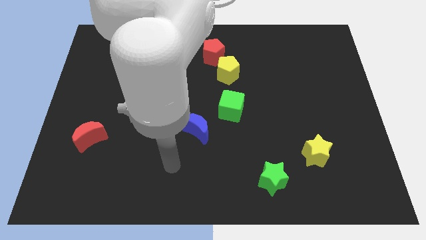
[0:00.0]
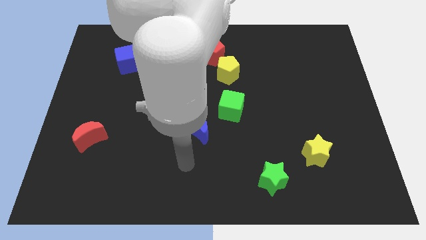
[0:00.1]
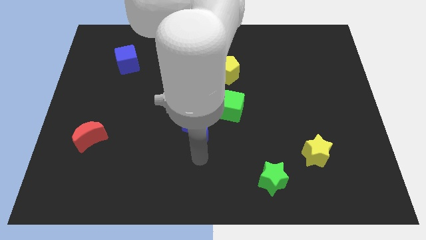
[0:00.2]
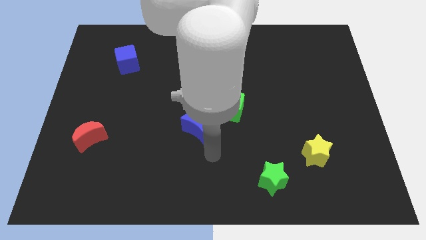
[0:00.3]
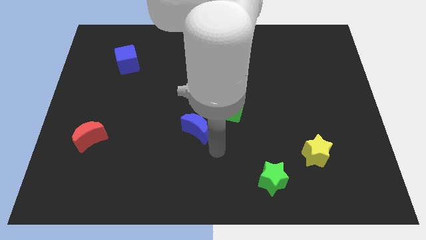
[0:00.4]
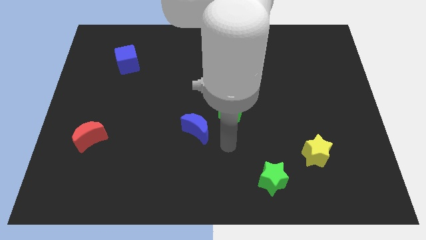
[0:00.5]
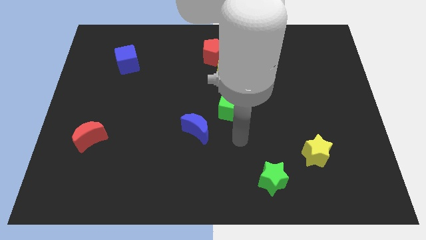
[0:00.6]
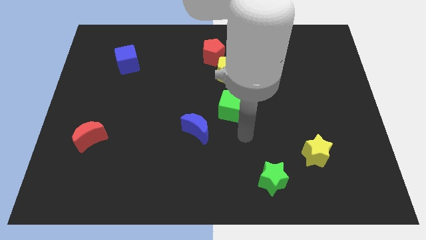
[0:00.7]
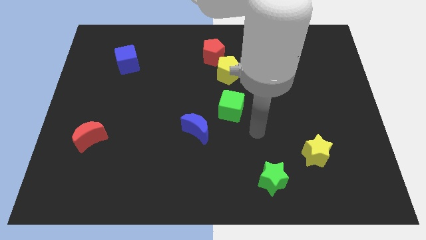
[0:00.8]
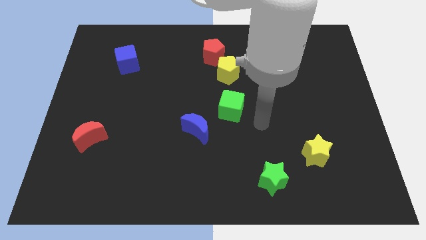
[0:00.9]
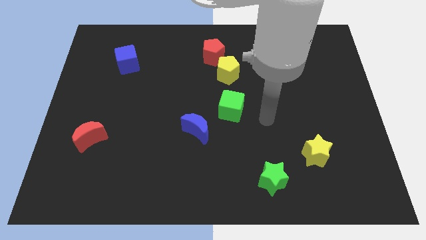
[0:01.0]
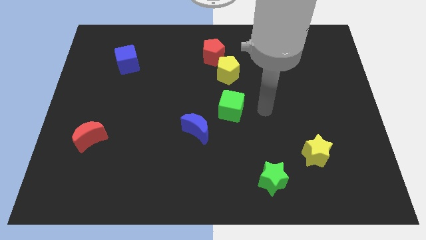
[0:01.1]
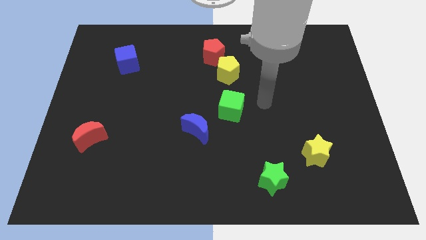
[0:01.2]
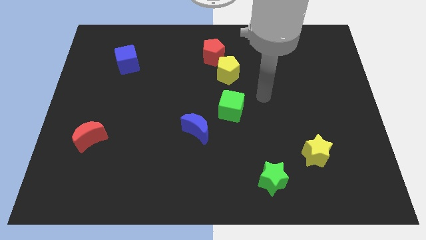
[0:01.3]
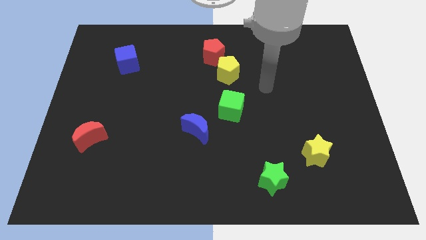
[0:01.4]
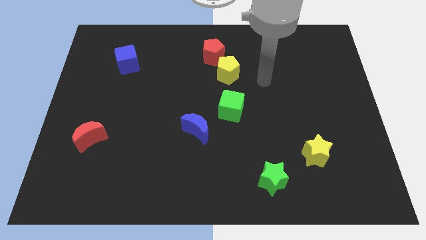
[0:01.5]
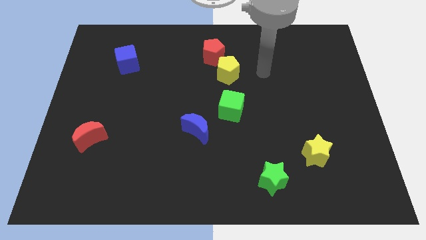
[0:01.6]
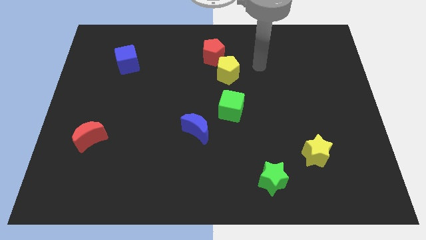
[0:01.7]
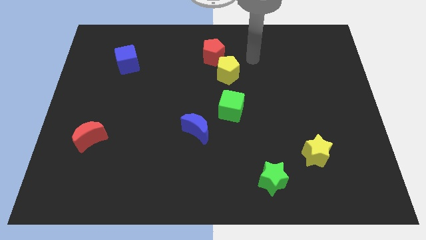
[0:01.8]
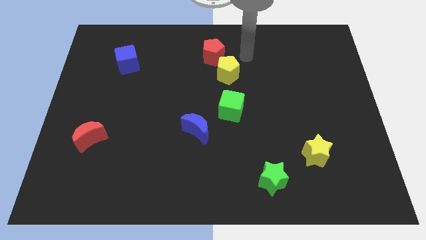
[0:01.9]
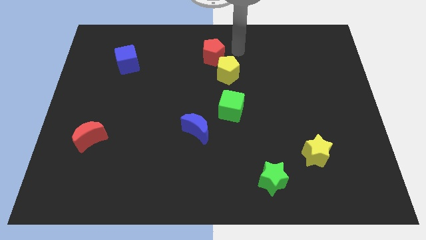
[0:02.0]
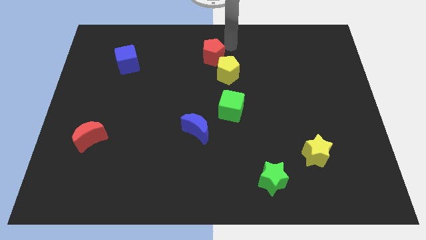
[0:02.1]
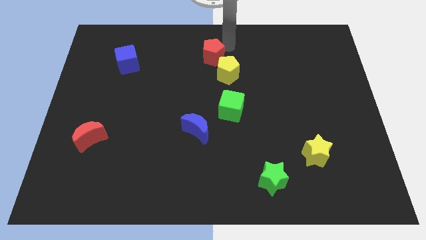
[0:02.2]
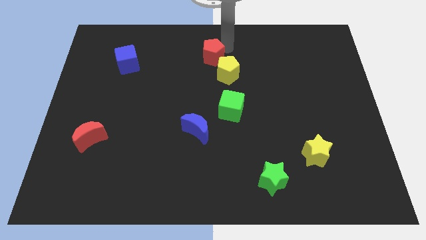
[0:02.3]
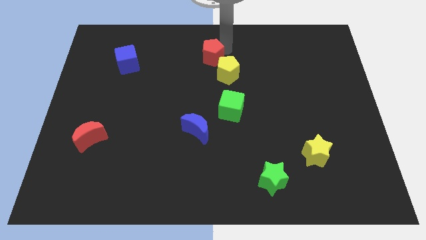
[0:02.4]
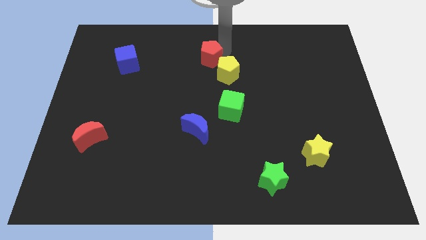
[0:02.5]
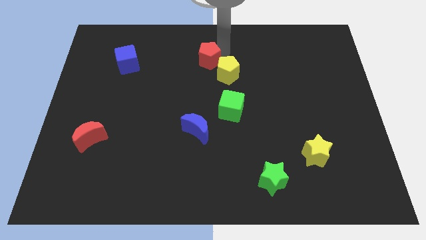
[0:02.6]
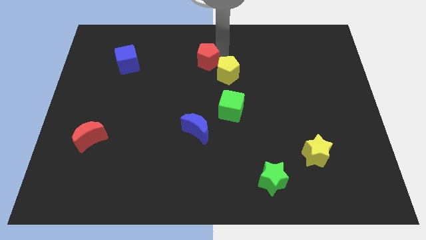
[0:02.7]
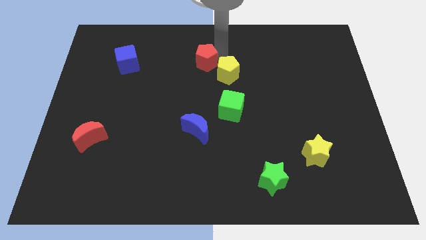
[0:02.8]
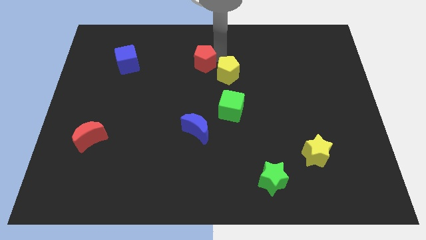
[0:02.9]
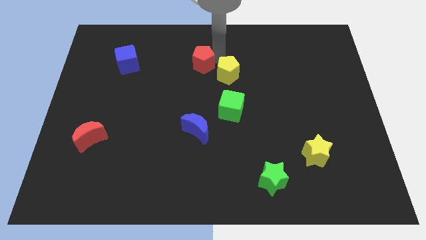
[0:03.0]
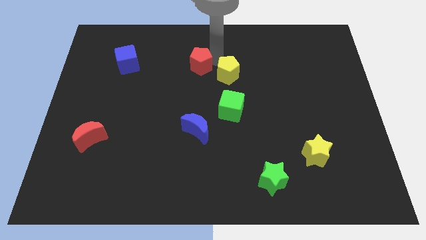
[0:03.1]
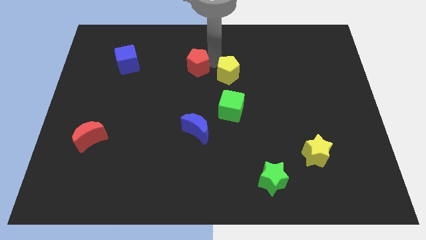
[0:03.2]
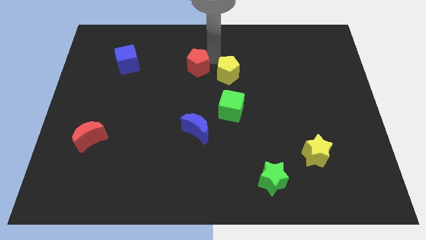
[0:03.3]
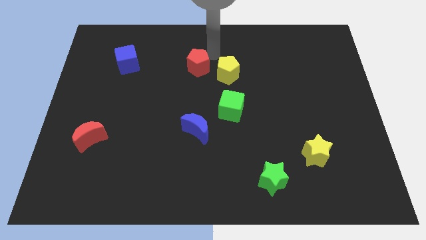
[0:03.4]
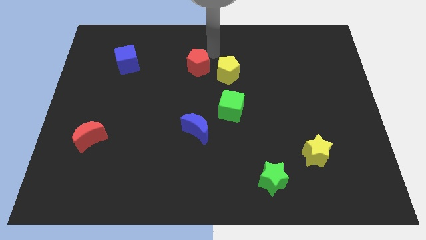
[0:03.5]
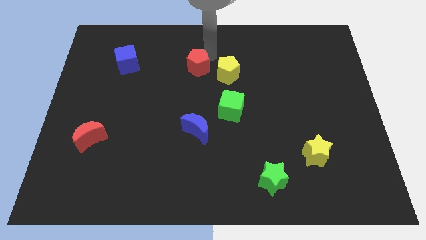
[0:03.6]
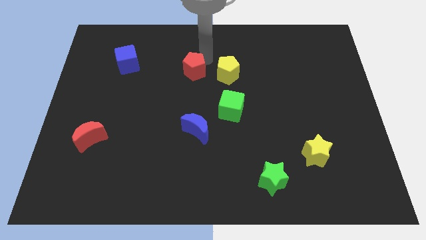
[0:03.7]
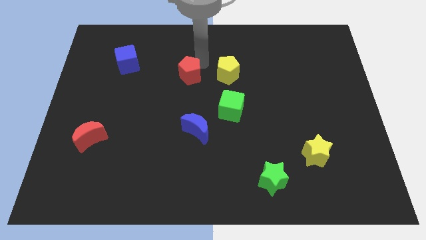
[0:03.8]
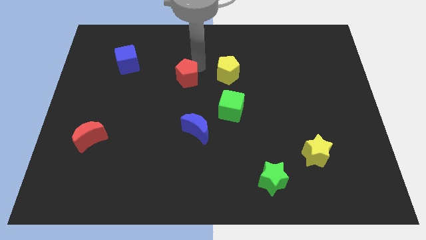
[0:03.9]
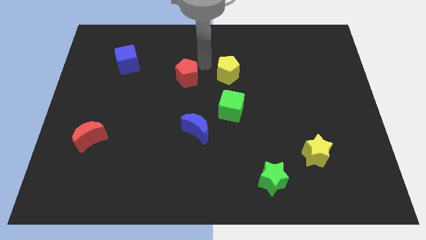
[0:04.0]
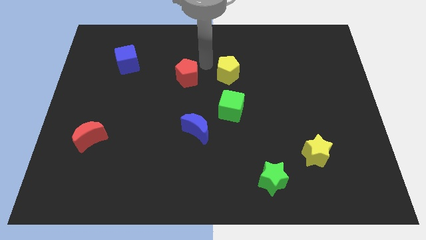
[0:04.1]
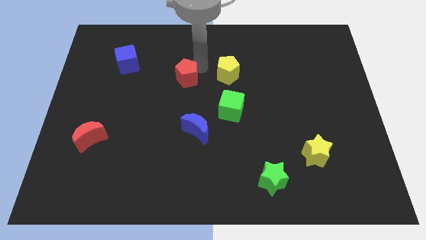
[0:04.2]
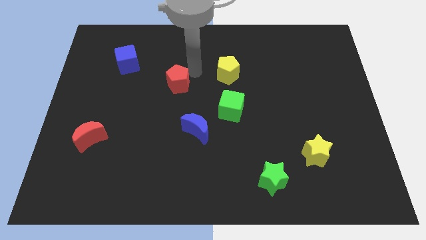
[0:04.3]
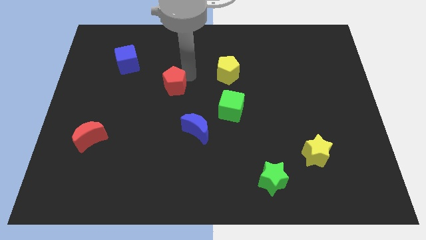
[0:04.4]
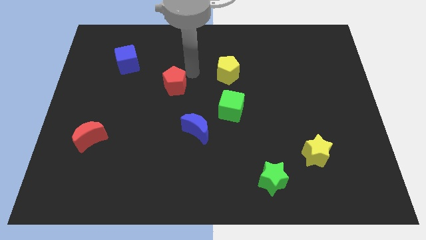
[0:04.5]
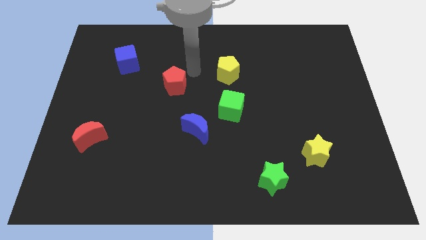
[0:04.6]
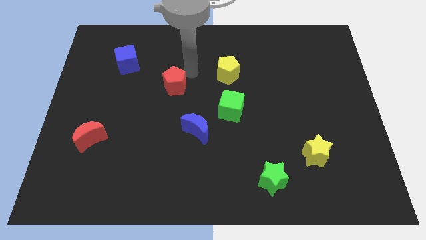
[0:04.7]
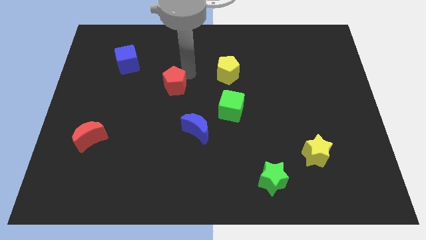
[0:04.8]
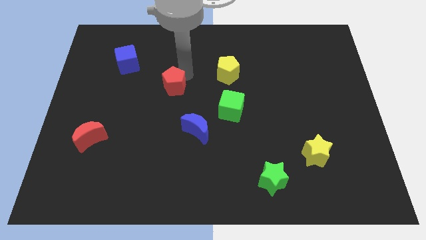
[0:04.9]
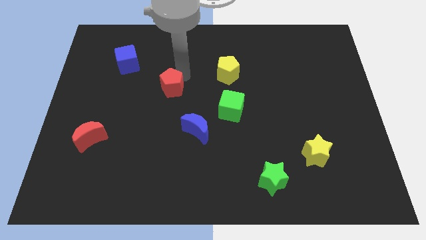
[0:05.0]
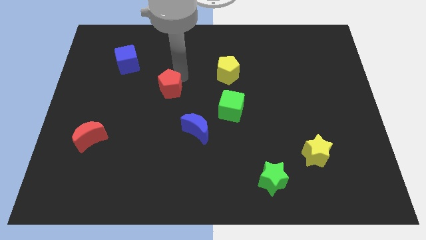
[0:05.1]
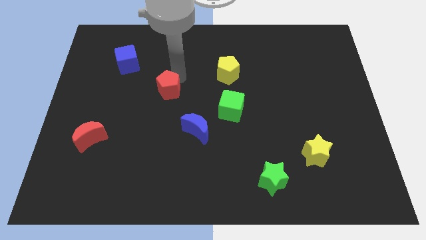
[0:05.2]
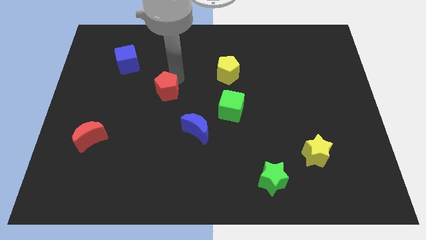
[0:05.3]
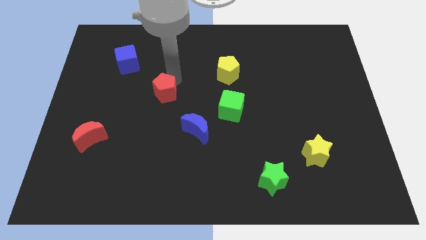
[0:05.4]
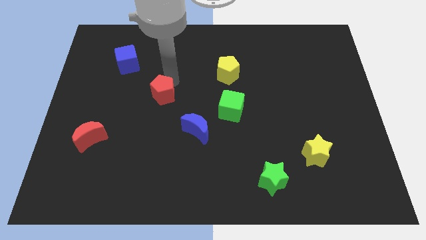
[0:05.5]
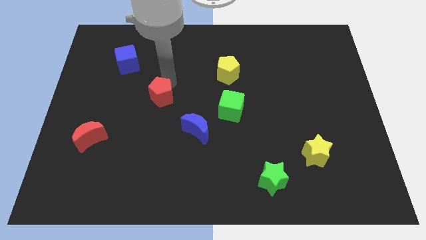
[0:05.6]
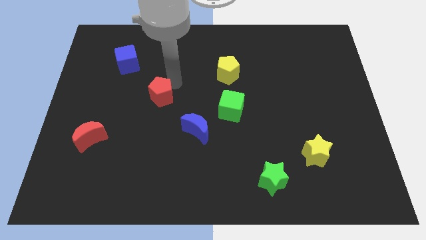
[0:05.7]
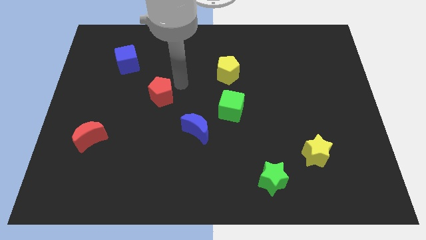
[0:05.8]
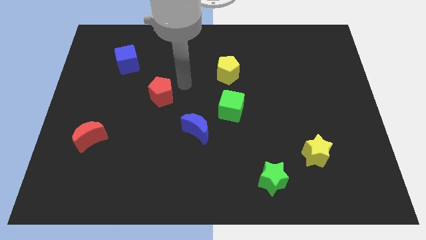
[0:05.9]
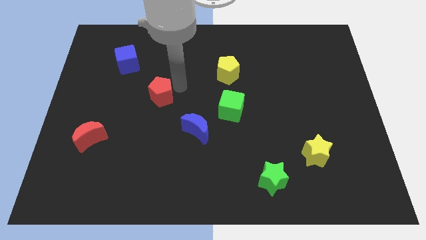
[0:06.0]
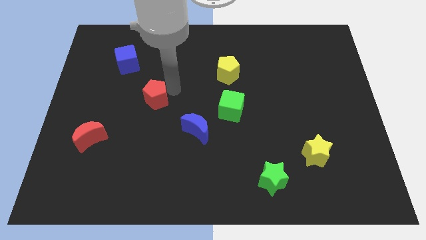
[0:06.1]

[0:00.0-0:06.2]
slide the red pentagon down and then left

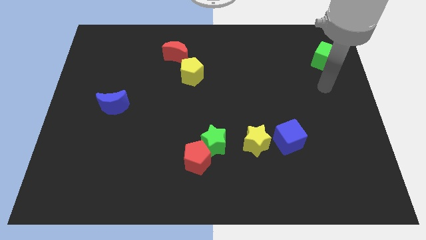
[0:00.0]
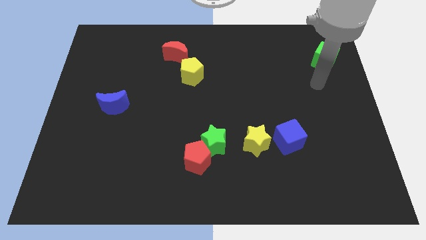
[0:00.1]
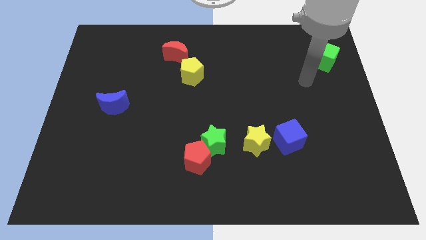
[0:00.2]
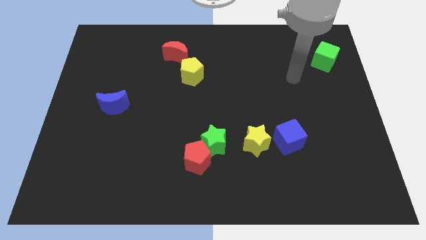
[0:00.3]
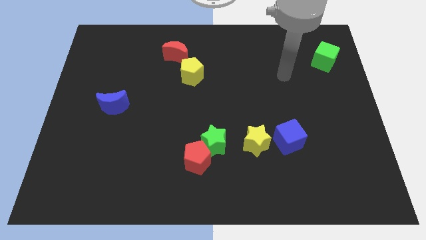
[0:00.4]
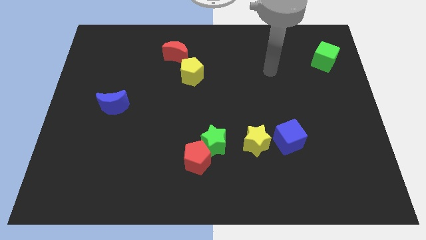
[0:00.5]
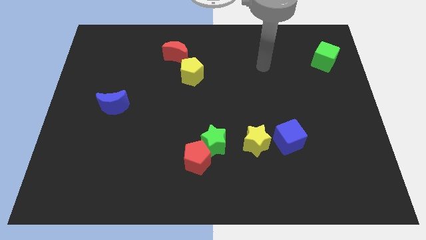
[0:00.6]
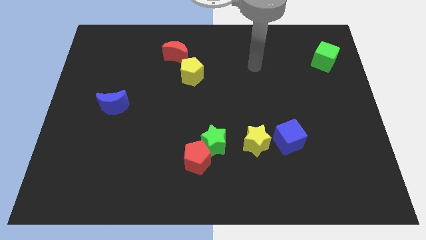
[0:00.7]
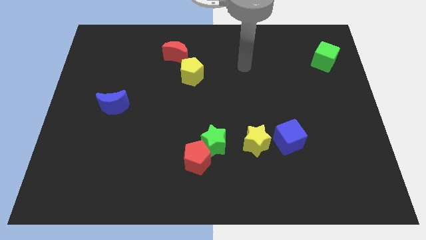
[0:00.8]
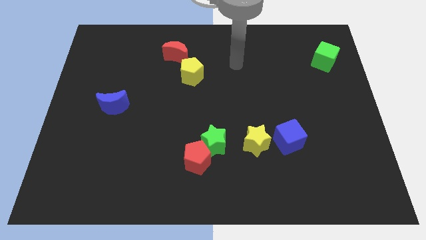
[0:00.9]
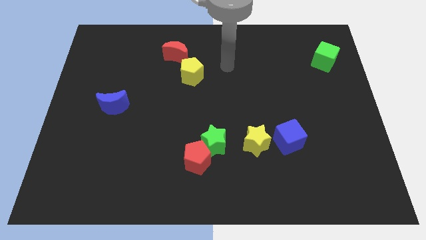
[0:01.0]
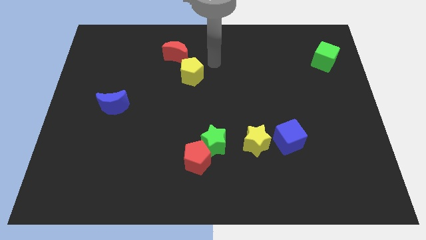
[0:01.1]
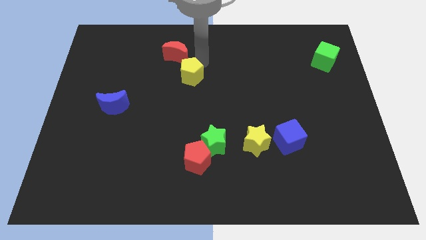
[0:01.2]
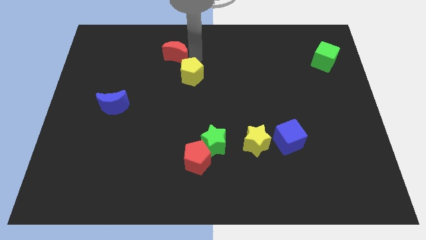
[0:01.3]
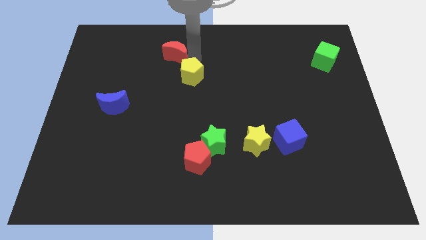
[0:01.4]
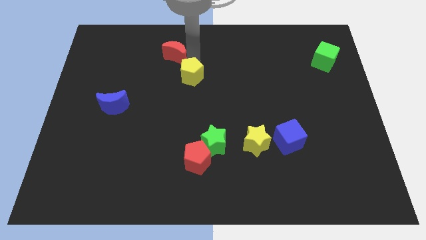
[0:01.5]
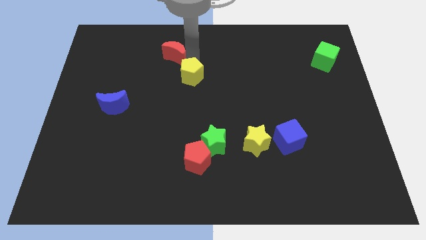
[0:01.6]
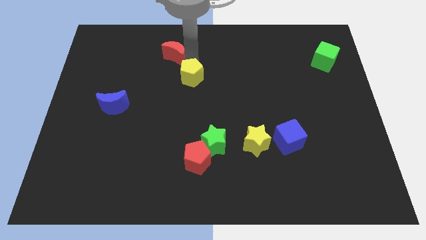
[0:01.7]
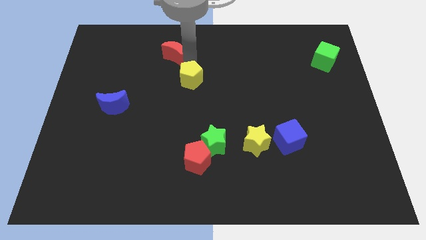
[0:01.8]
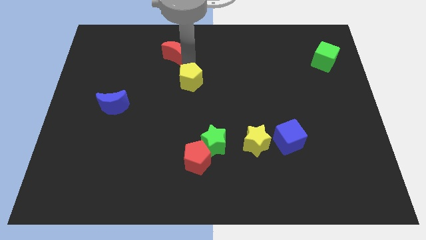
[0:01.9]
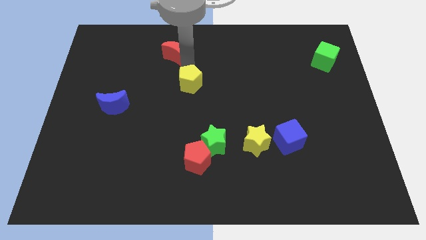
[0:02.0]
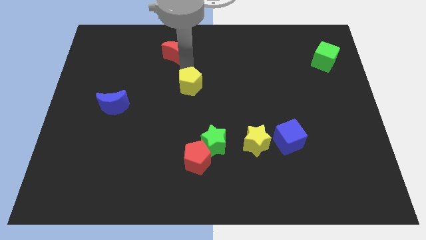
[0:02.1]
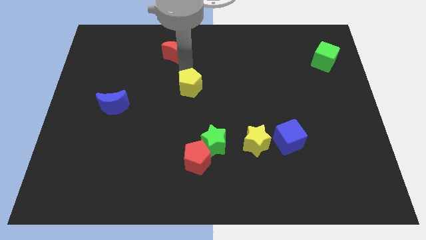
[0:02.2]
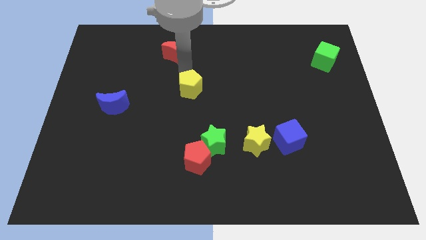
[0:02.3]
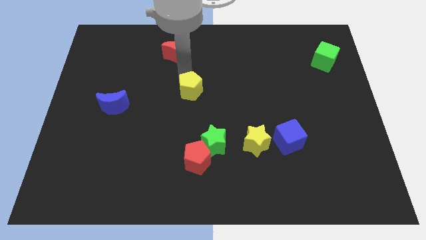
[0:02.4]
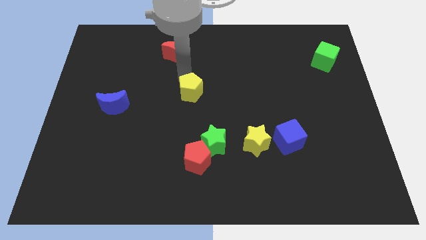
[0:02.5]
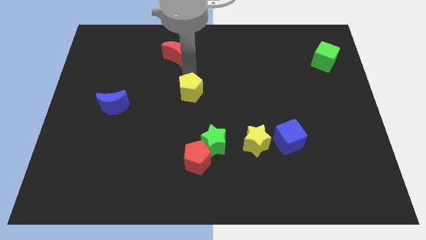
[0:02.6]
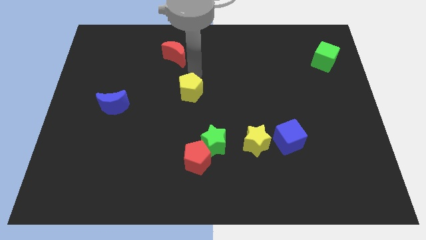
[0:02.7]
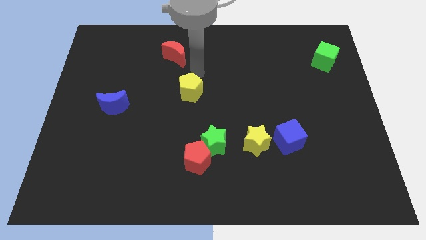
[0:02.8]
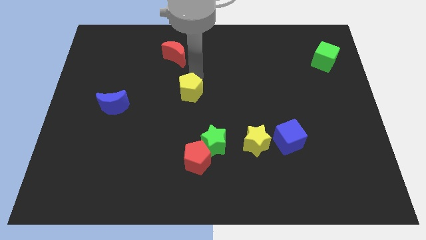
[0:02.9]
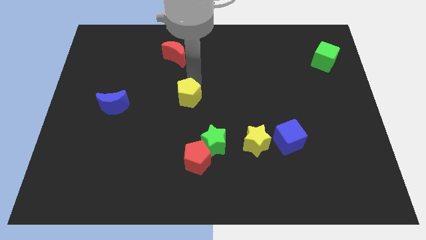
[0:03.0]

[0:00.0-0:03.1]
slightly move the yellow pentagon down
